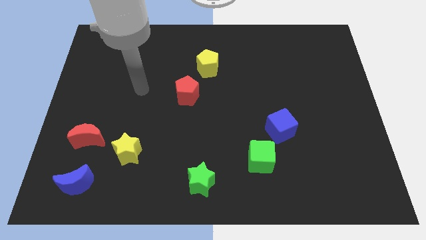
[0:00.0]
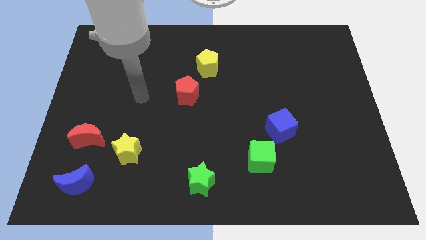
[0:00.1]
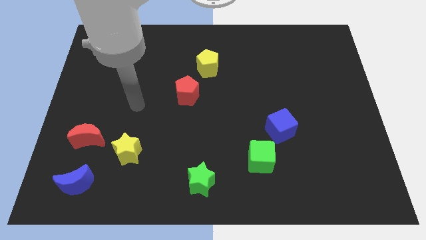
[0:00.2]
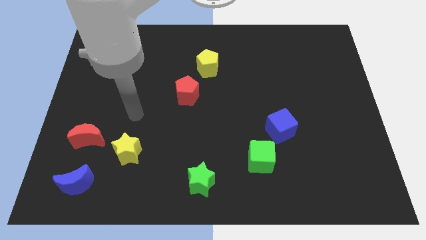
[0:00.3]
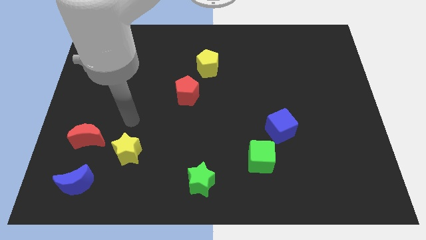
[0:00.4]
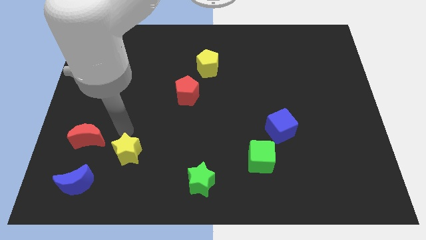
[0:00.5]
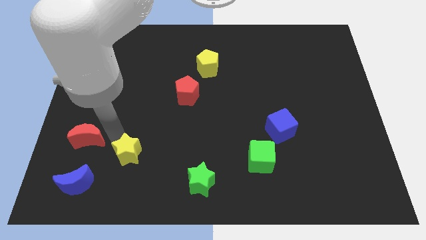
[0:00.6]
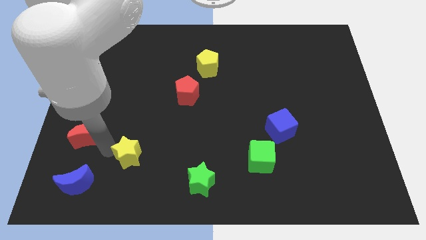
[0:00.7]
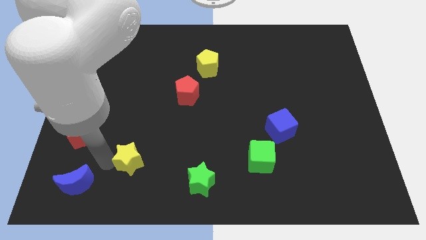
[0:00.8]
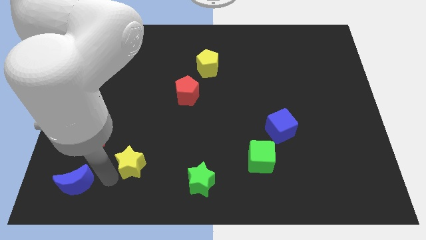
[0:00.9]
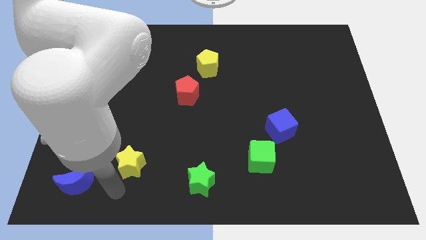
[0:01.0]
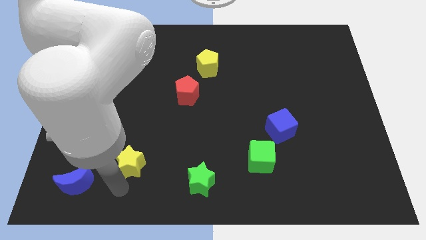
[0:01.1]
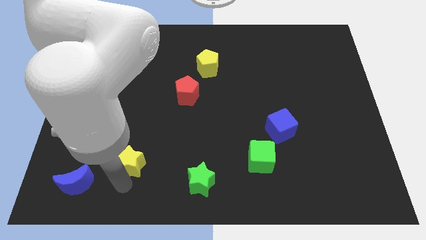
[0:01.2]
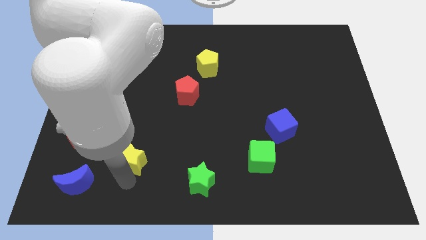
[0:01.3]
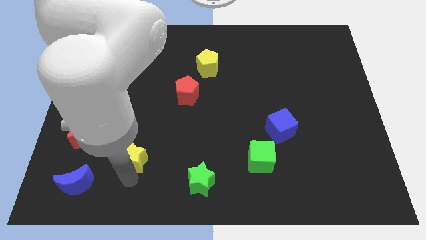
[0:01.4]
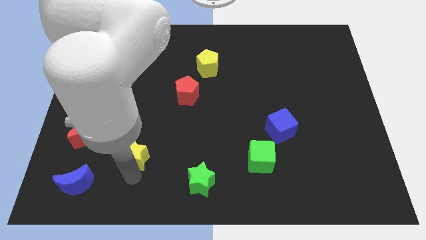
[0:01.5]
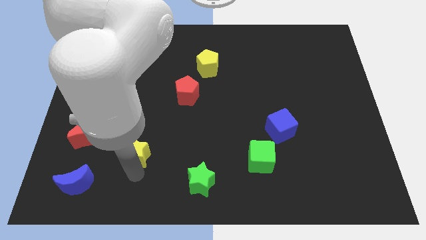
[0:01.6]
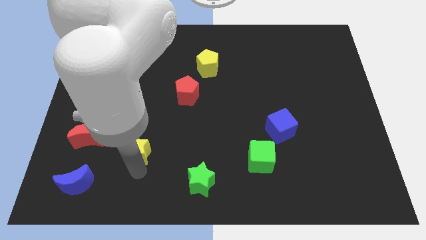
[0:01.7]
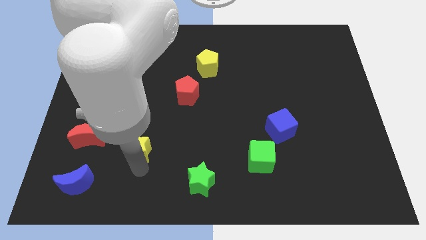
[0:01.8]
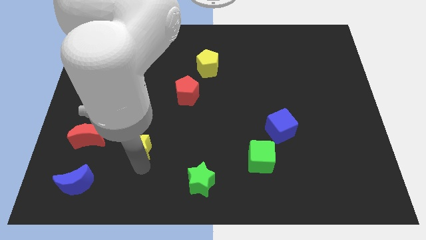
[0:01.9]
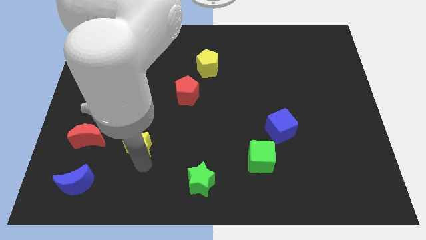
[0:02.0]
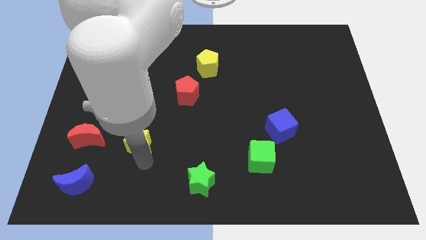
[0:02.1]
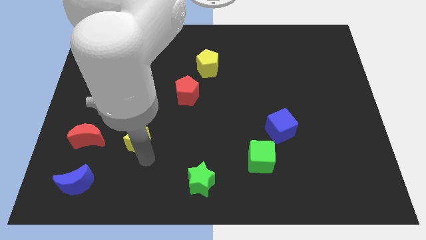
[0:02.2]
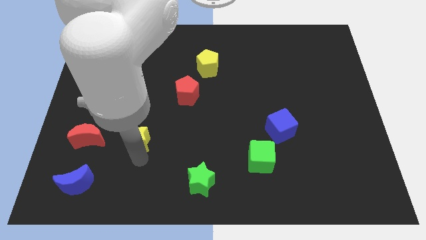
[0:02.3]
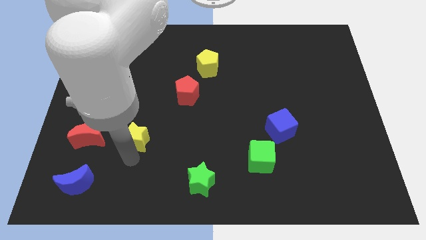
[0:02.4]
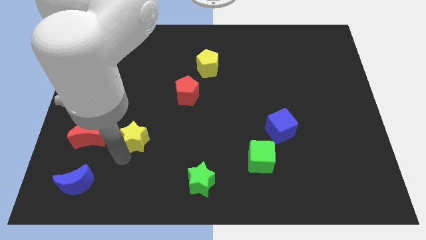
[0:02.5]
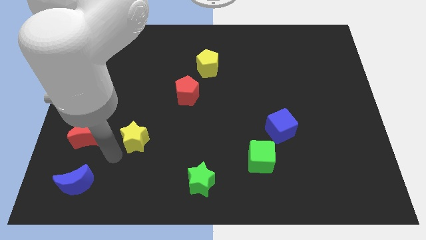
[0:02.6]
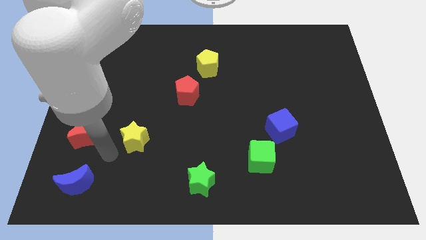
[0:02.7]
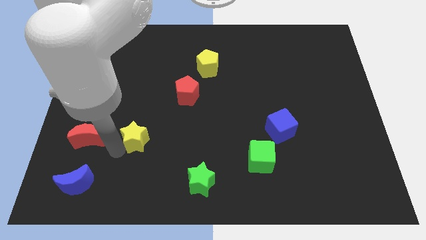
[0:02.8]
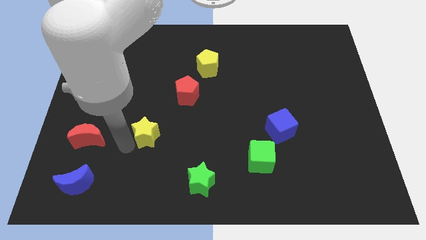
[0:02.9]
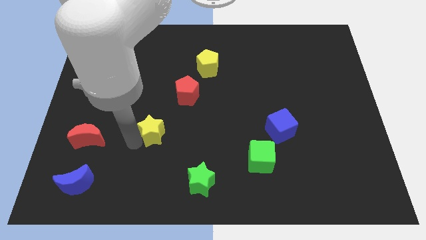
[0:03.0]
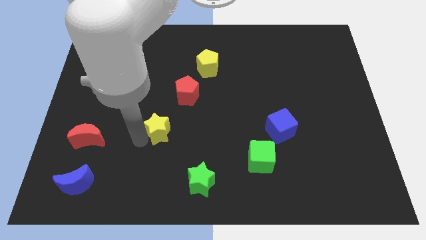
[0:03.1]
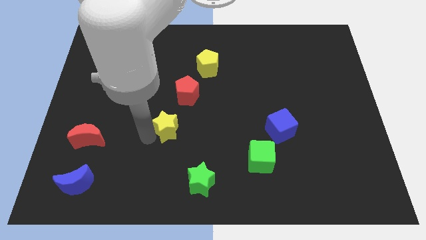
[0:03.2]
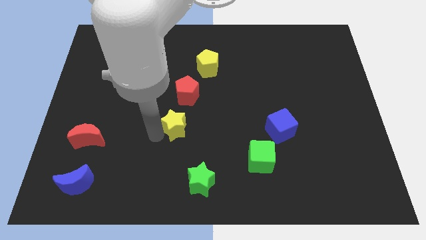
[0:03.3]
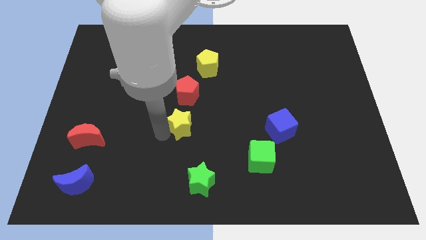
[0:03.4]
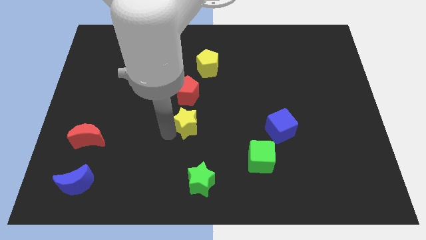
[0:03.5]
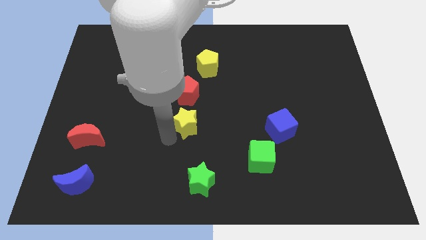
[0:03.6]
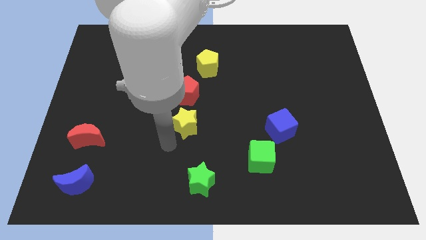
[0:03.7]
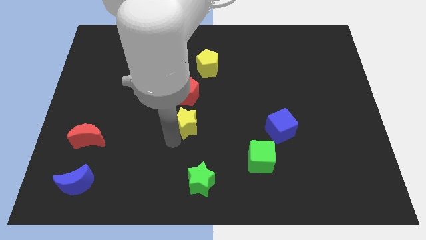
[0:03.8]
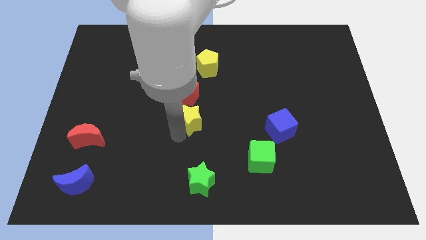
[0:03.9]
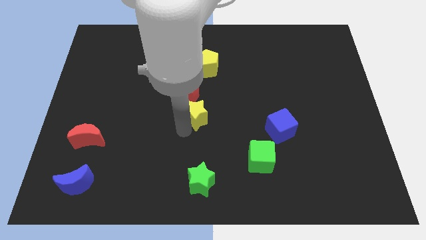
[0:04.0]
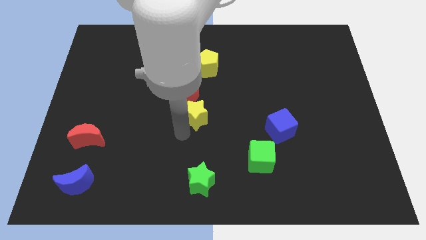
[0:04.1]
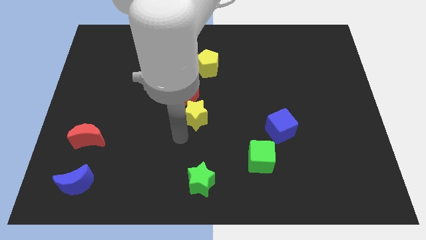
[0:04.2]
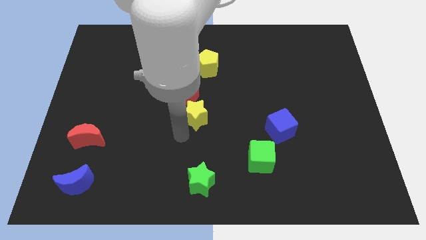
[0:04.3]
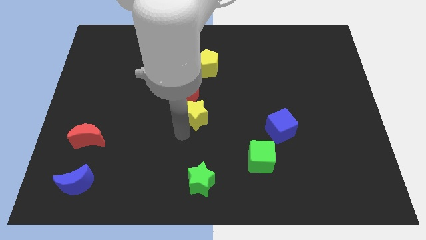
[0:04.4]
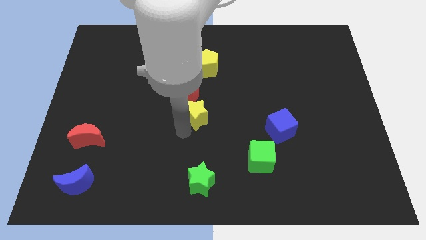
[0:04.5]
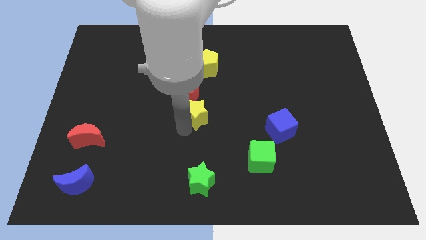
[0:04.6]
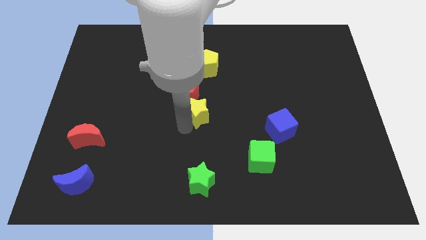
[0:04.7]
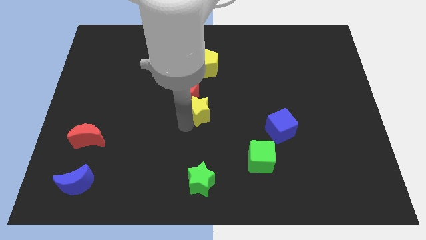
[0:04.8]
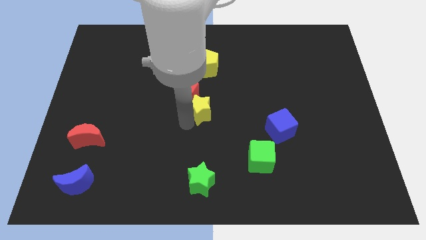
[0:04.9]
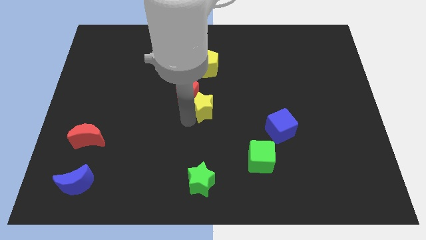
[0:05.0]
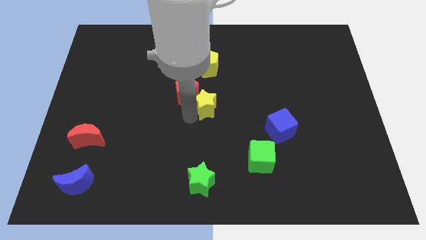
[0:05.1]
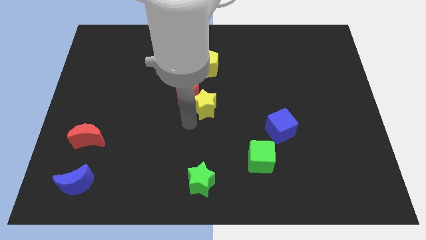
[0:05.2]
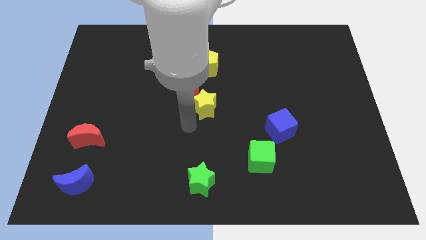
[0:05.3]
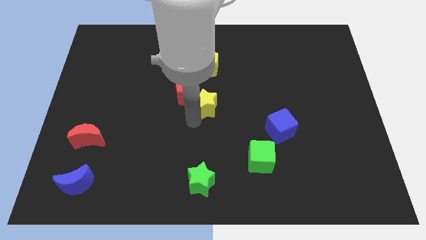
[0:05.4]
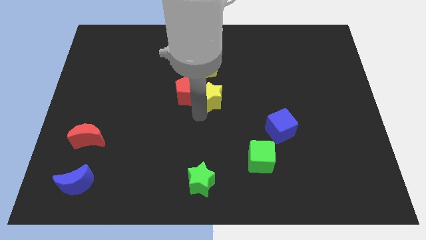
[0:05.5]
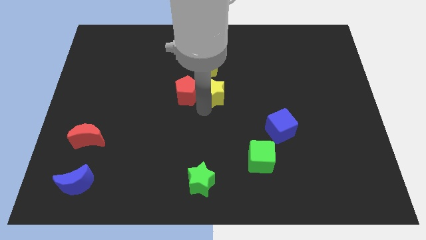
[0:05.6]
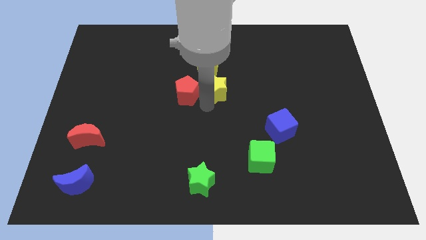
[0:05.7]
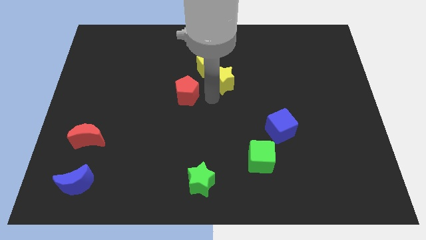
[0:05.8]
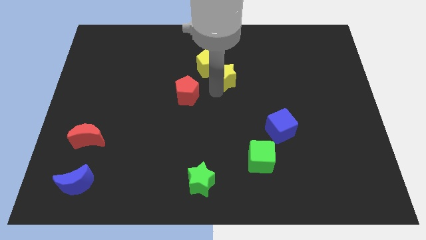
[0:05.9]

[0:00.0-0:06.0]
slide the yellow star just right of the yellow pentagon
